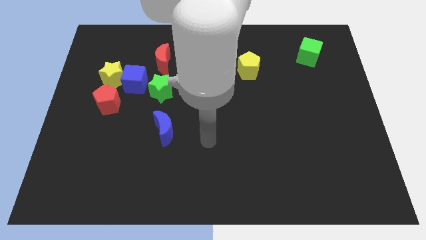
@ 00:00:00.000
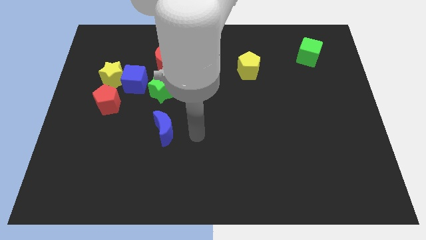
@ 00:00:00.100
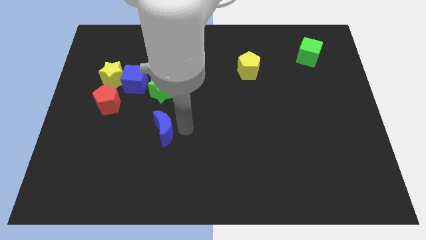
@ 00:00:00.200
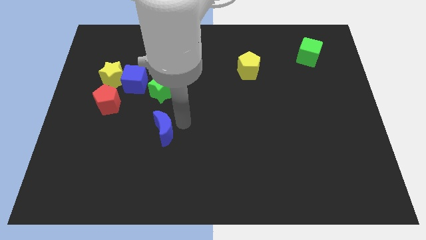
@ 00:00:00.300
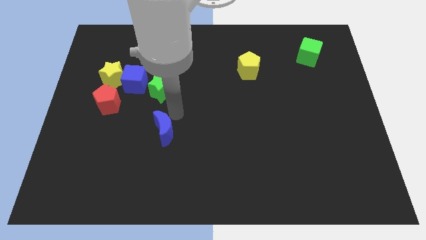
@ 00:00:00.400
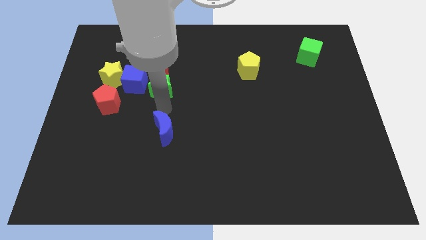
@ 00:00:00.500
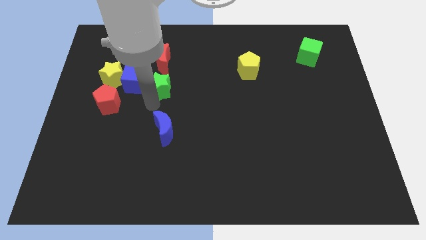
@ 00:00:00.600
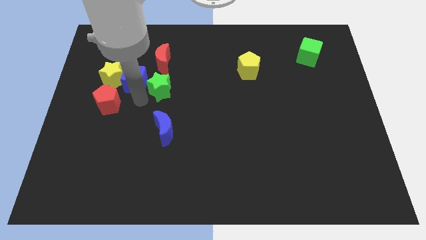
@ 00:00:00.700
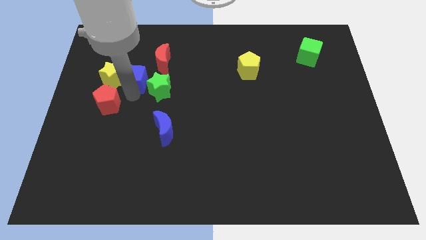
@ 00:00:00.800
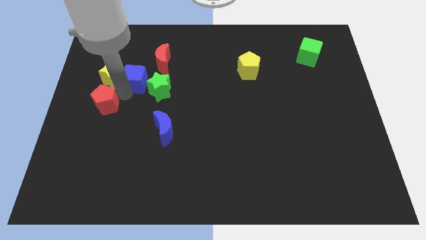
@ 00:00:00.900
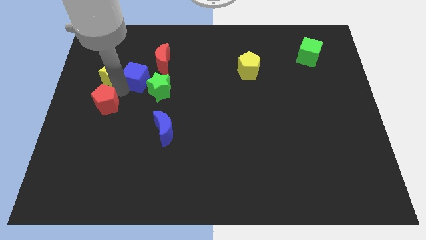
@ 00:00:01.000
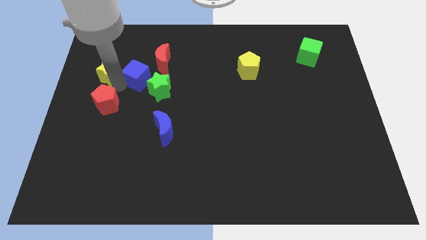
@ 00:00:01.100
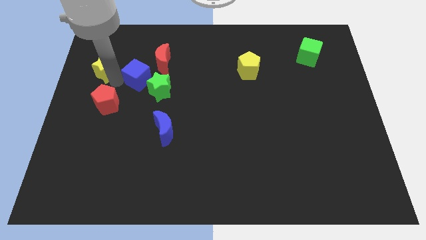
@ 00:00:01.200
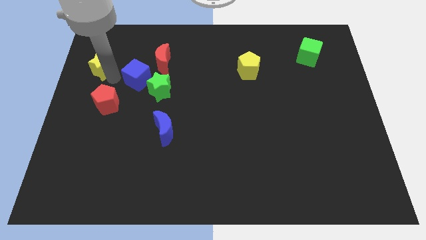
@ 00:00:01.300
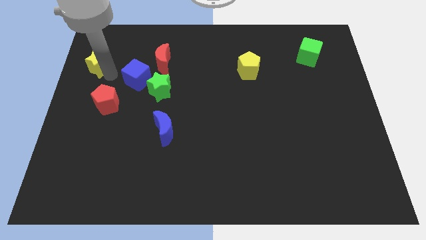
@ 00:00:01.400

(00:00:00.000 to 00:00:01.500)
separate the yellow star from the blue cube and red pentagon

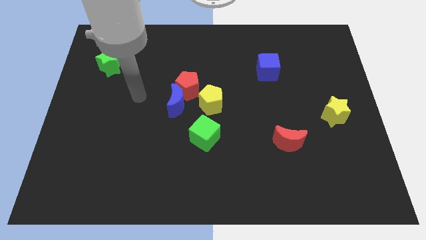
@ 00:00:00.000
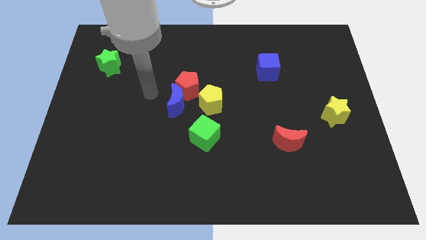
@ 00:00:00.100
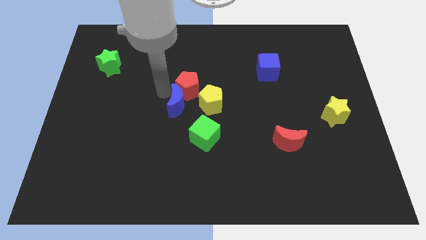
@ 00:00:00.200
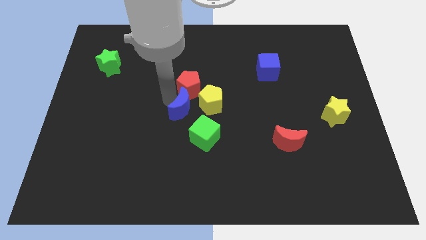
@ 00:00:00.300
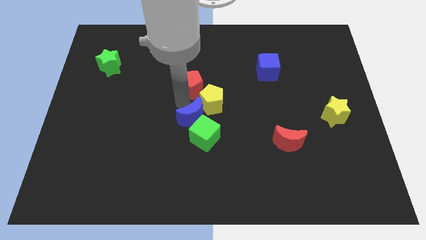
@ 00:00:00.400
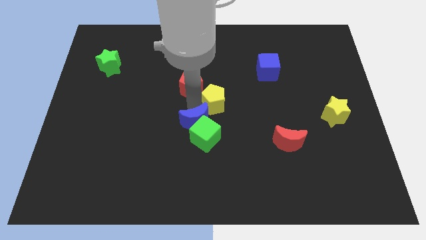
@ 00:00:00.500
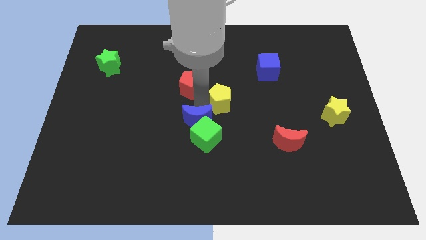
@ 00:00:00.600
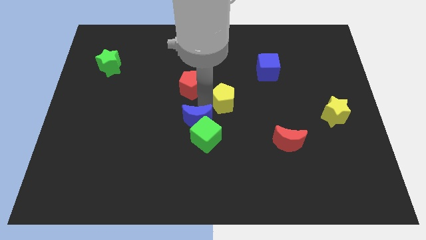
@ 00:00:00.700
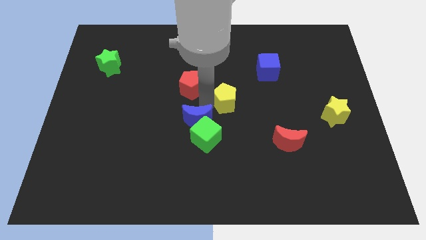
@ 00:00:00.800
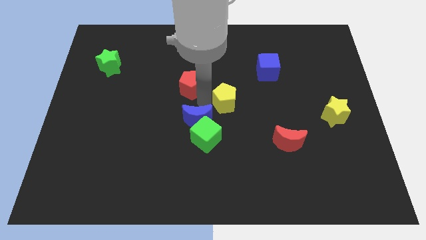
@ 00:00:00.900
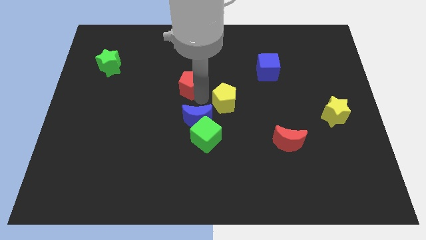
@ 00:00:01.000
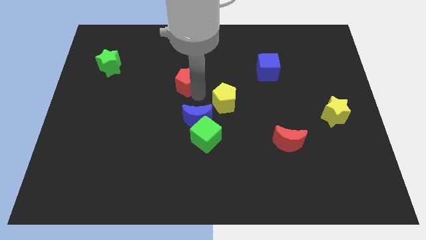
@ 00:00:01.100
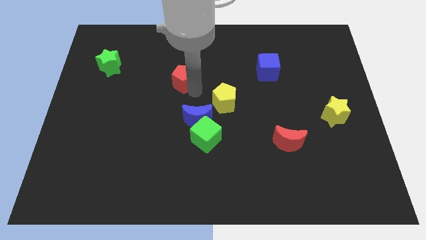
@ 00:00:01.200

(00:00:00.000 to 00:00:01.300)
move the red pentagon away from the blue moon and yellow pentagon

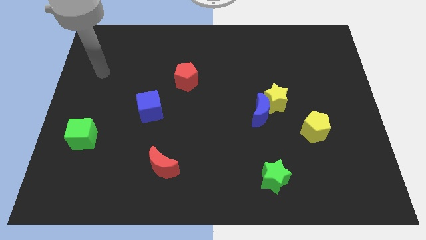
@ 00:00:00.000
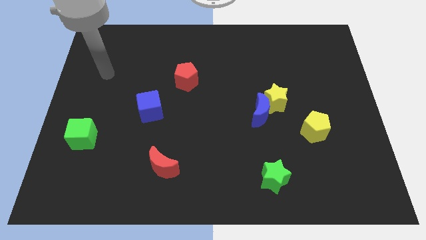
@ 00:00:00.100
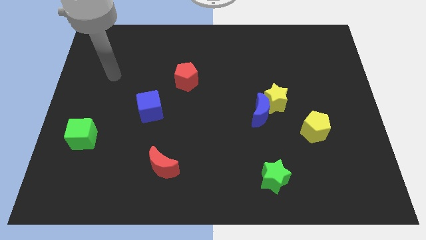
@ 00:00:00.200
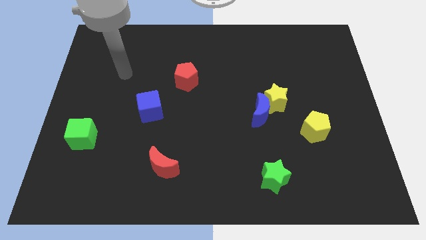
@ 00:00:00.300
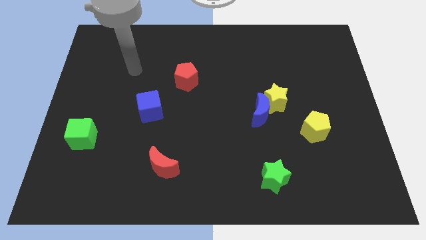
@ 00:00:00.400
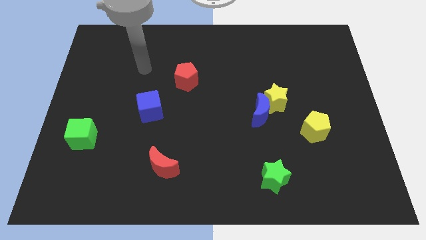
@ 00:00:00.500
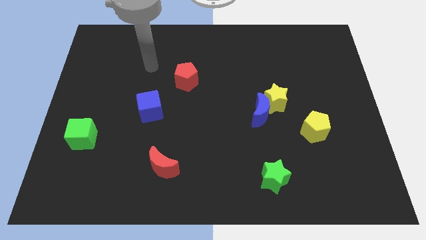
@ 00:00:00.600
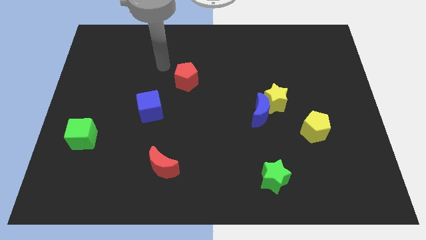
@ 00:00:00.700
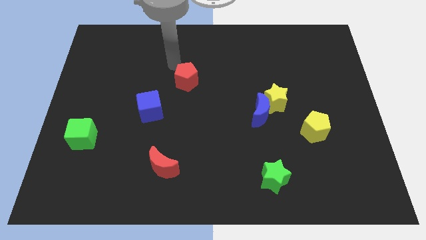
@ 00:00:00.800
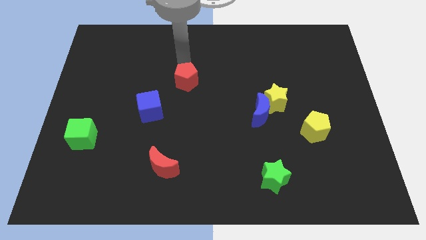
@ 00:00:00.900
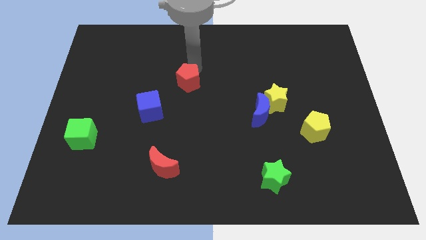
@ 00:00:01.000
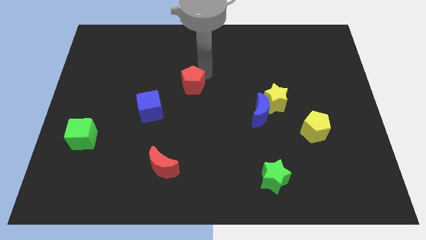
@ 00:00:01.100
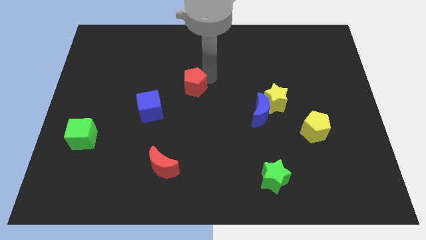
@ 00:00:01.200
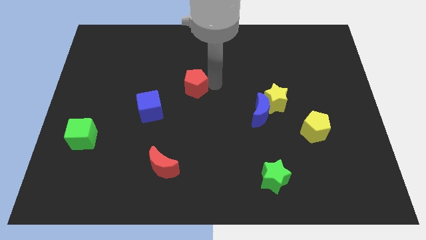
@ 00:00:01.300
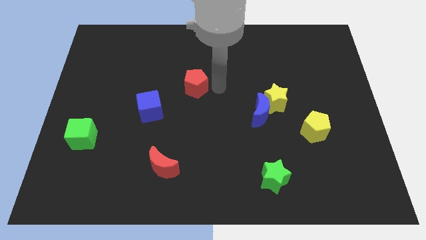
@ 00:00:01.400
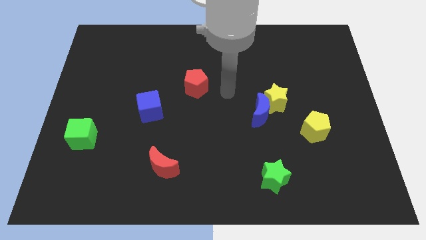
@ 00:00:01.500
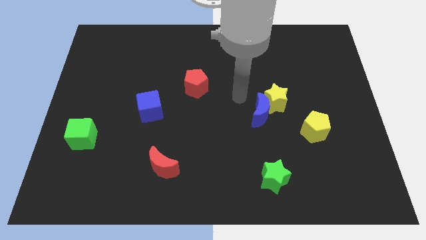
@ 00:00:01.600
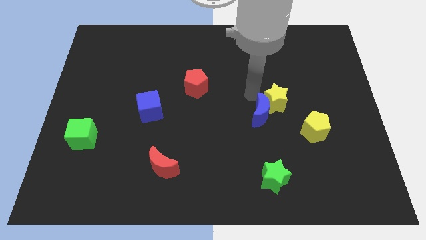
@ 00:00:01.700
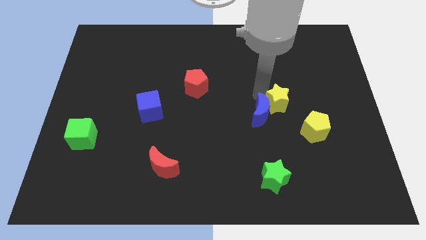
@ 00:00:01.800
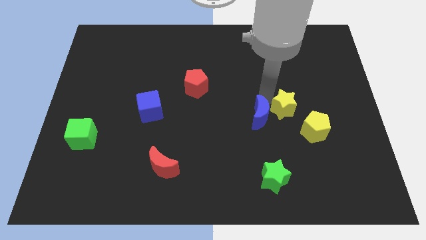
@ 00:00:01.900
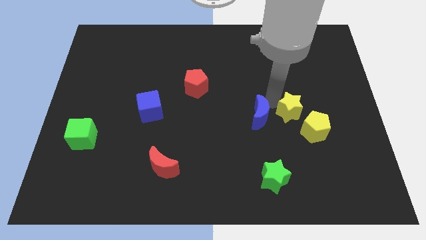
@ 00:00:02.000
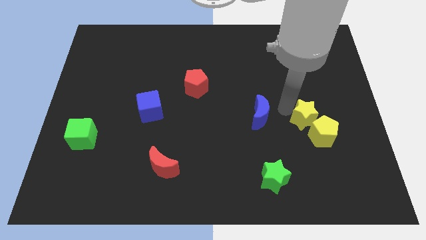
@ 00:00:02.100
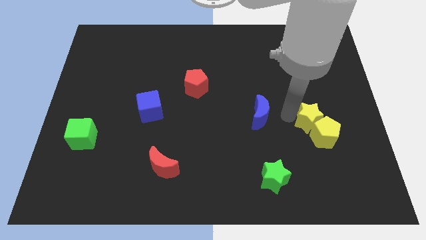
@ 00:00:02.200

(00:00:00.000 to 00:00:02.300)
move the blue moon away from the yellow star

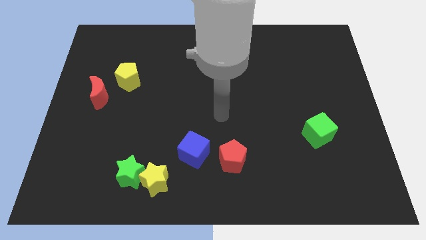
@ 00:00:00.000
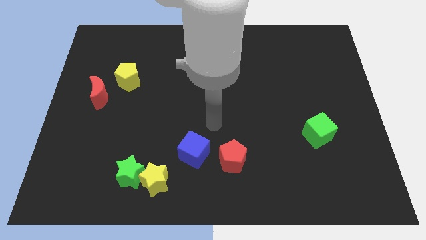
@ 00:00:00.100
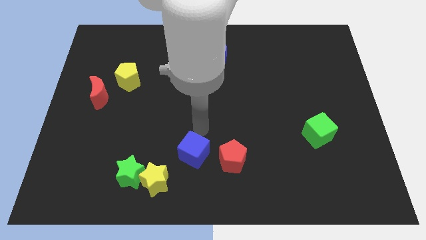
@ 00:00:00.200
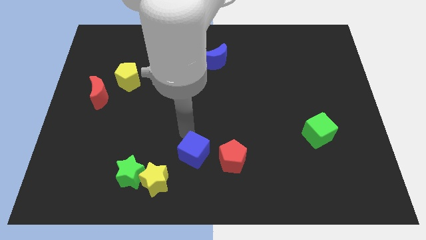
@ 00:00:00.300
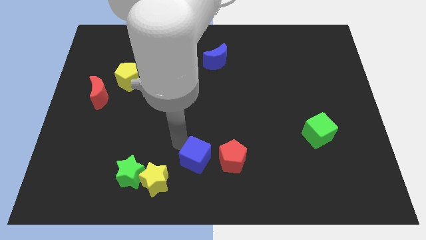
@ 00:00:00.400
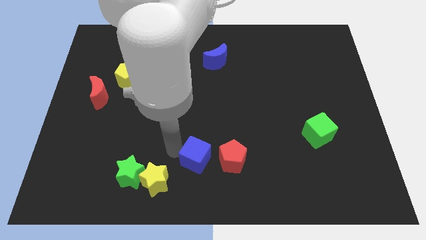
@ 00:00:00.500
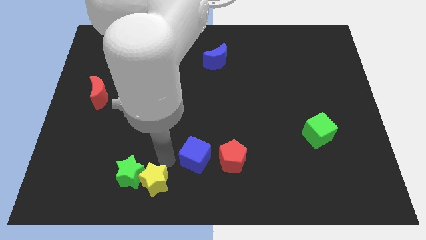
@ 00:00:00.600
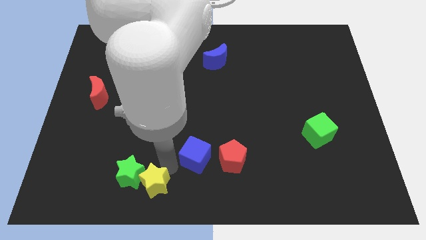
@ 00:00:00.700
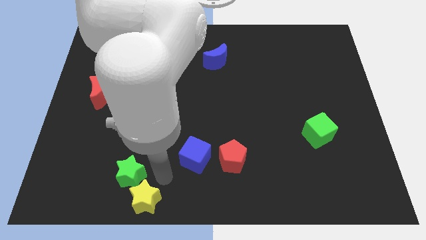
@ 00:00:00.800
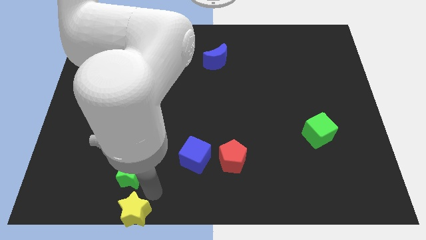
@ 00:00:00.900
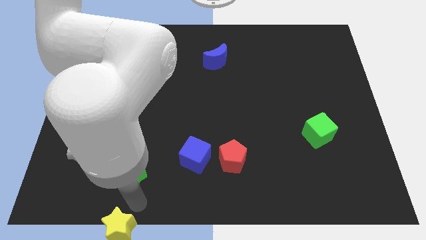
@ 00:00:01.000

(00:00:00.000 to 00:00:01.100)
pull the green star apart from the yellow star

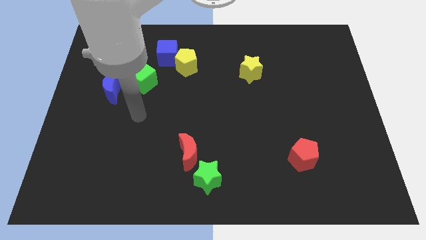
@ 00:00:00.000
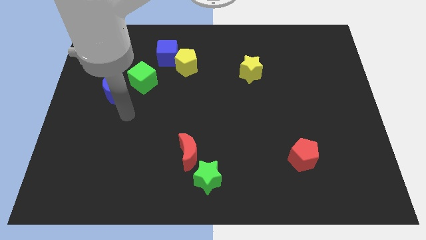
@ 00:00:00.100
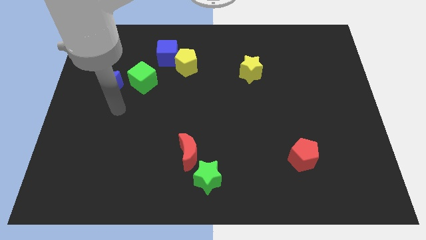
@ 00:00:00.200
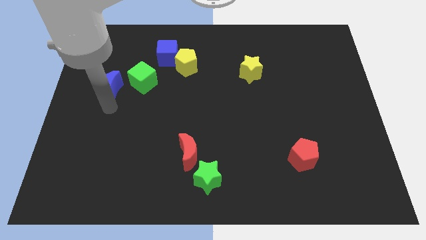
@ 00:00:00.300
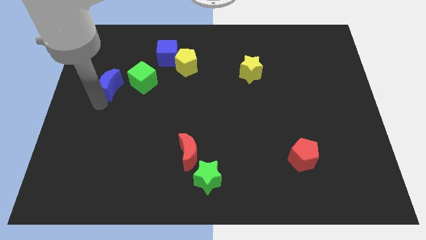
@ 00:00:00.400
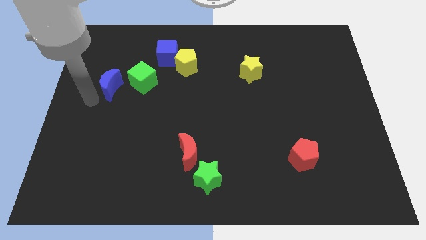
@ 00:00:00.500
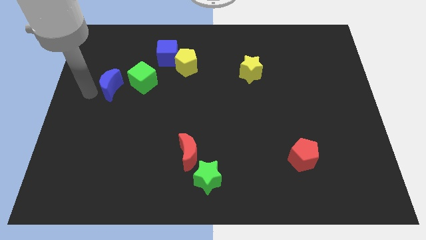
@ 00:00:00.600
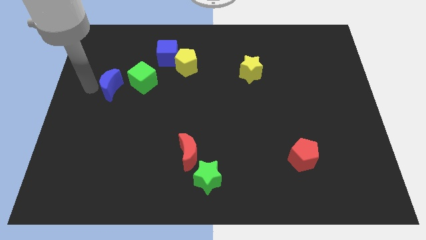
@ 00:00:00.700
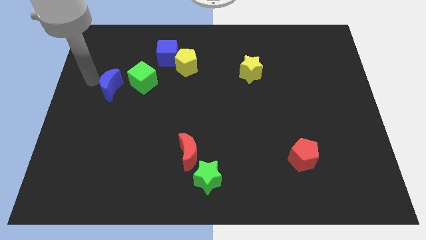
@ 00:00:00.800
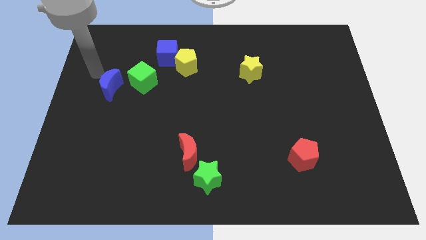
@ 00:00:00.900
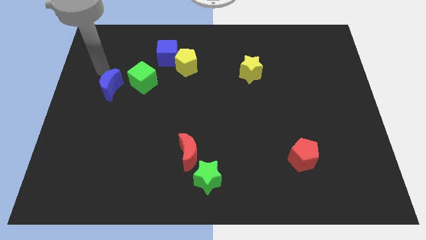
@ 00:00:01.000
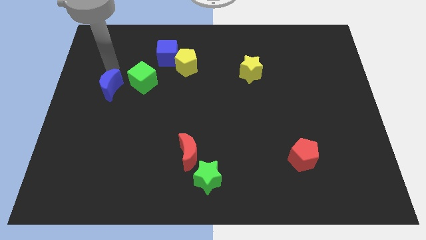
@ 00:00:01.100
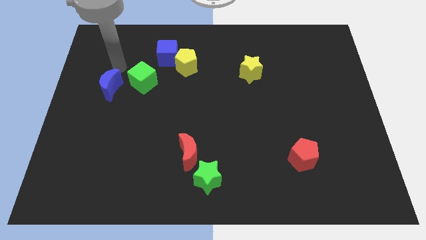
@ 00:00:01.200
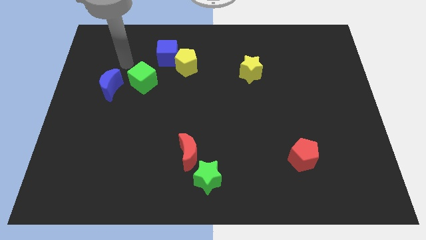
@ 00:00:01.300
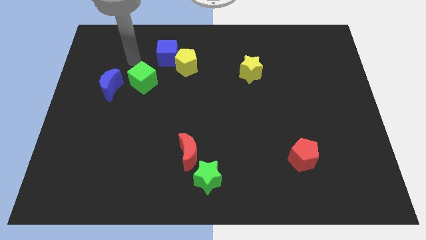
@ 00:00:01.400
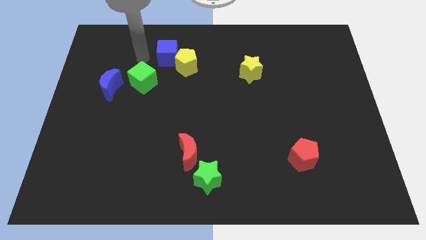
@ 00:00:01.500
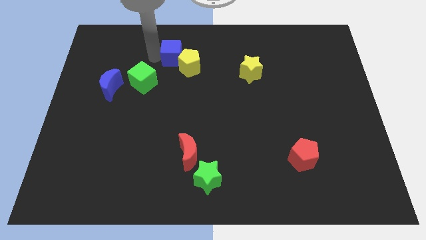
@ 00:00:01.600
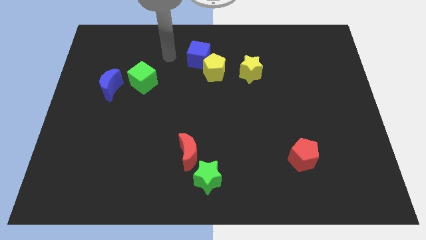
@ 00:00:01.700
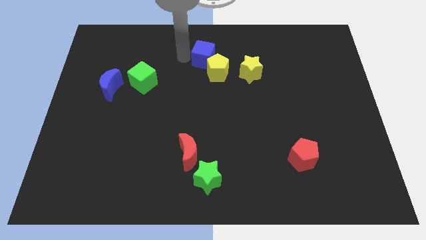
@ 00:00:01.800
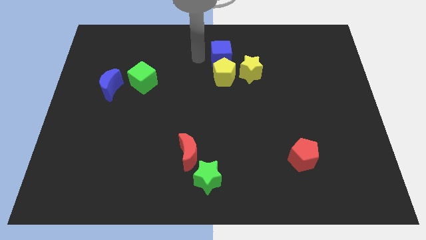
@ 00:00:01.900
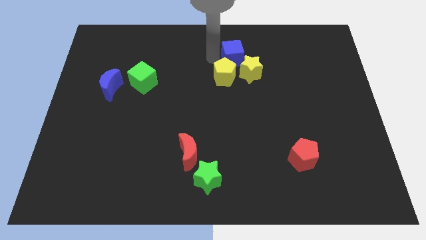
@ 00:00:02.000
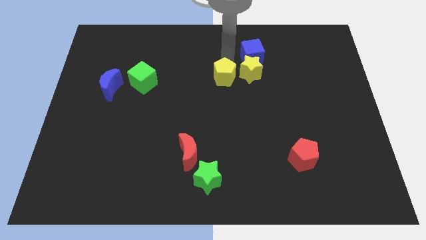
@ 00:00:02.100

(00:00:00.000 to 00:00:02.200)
pull the yellow pentagon apart from the blue cube

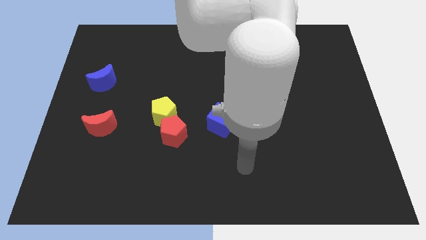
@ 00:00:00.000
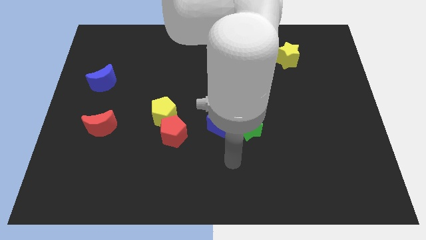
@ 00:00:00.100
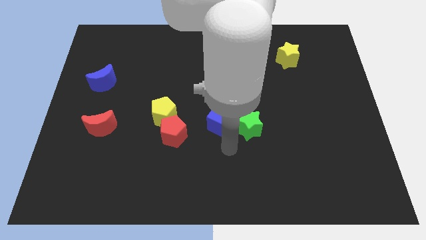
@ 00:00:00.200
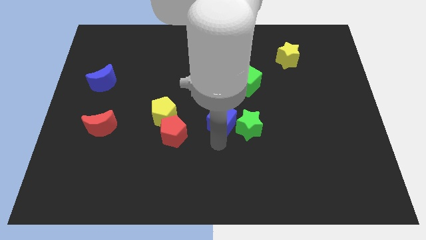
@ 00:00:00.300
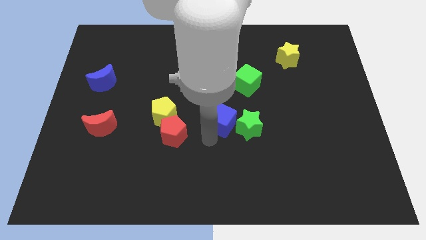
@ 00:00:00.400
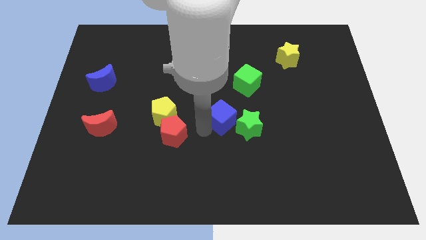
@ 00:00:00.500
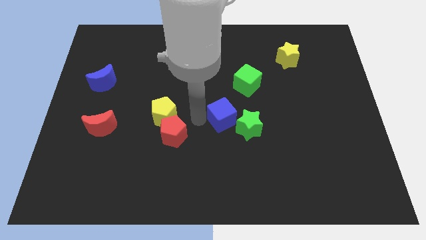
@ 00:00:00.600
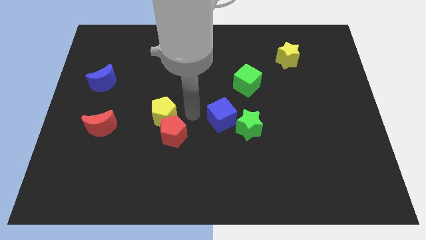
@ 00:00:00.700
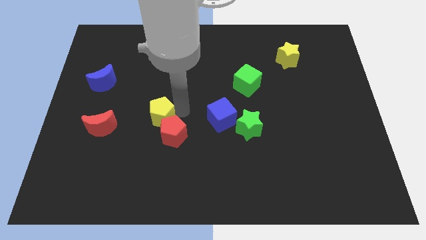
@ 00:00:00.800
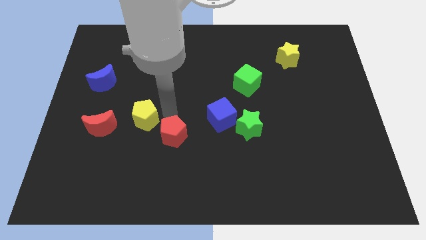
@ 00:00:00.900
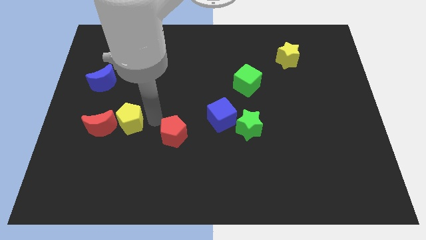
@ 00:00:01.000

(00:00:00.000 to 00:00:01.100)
separate the red pentagon from the yellow pentagon
